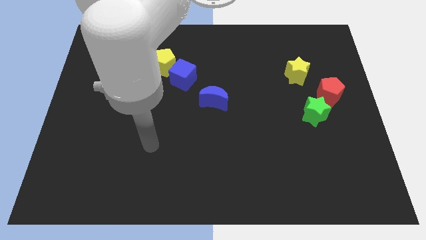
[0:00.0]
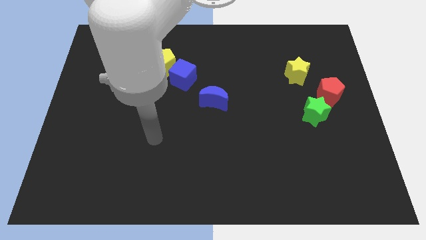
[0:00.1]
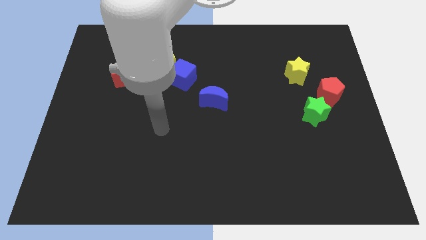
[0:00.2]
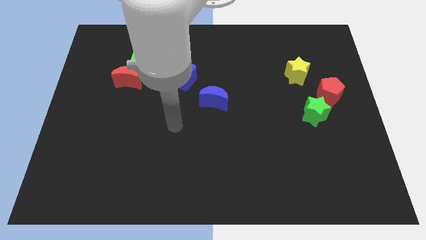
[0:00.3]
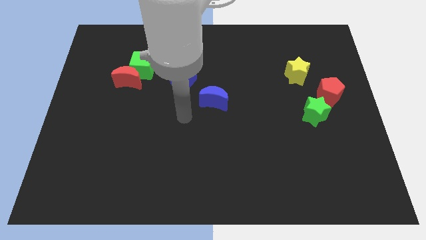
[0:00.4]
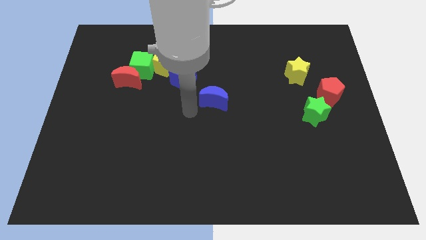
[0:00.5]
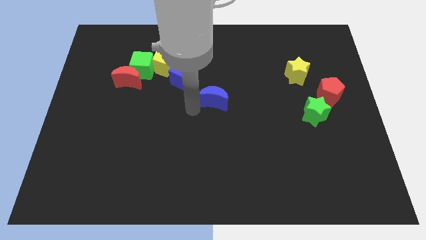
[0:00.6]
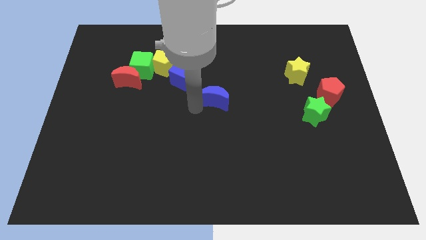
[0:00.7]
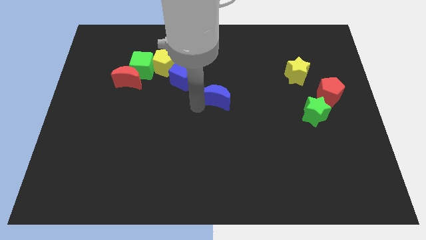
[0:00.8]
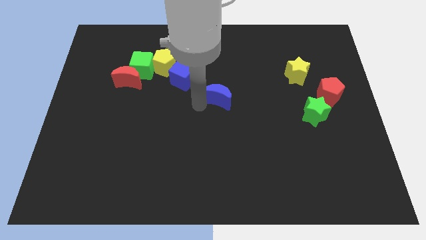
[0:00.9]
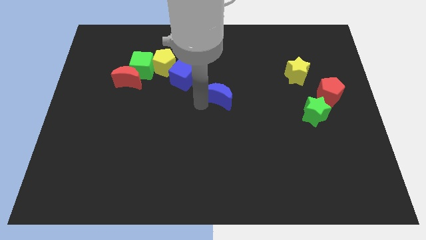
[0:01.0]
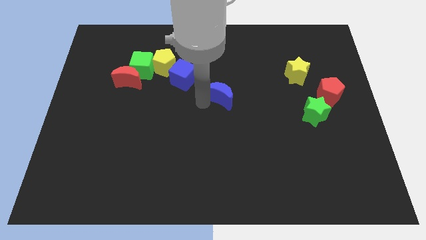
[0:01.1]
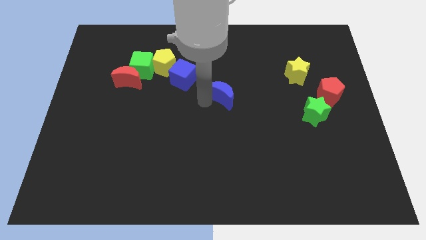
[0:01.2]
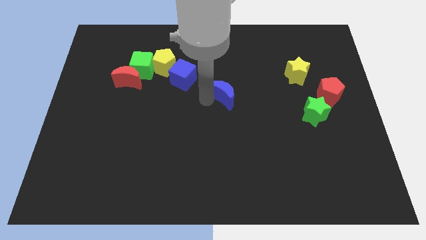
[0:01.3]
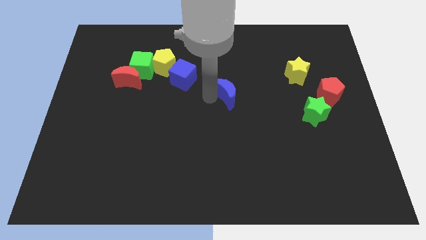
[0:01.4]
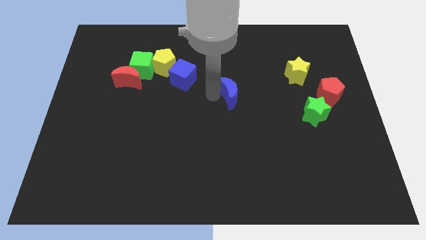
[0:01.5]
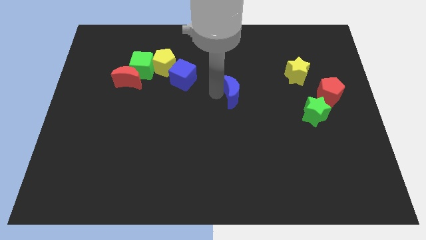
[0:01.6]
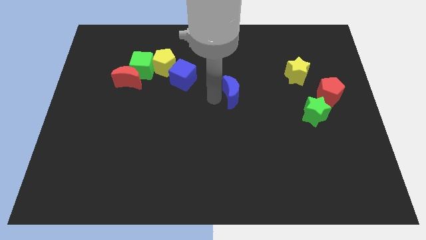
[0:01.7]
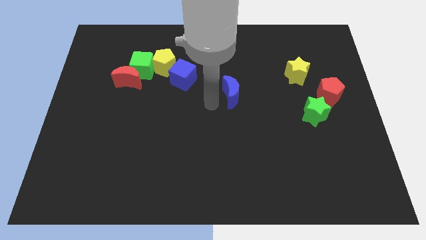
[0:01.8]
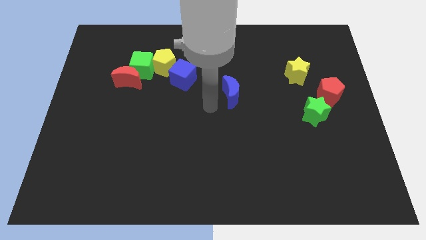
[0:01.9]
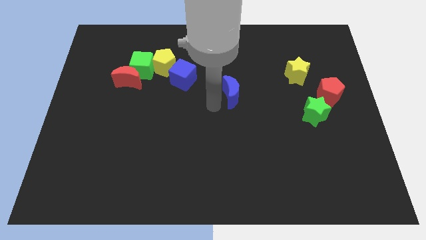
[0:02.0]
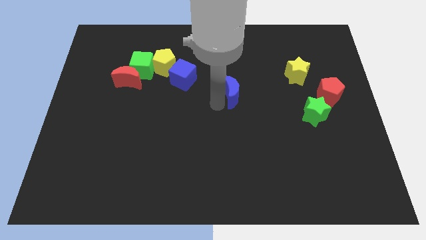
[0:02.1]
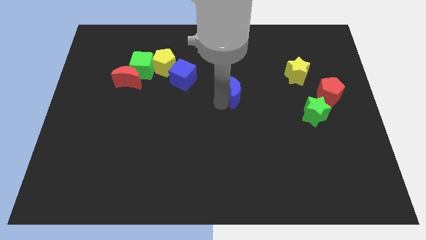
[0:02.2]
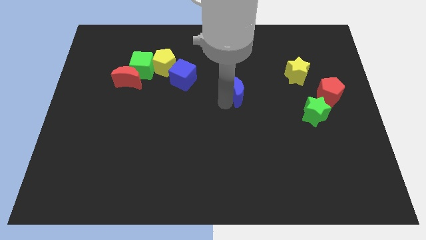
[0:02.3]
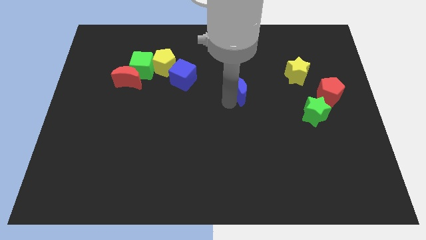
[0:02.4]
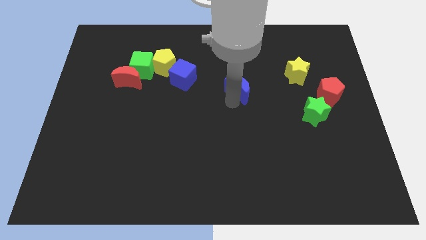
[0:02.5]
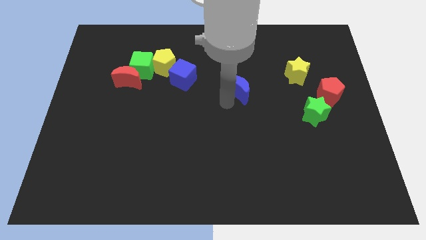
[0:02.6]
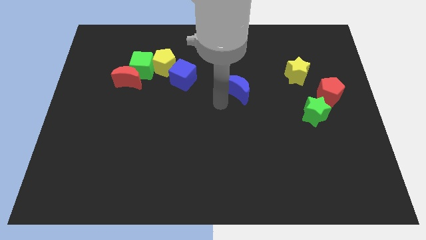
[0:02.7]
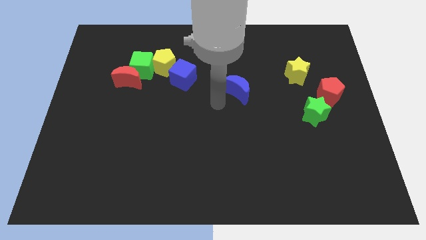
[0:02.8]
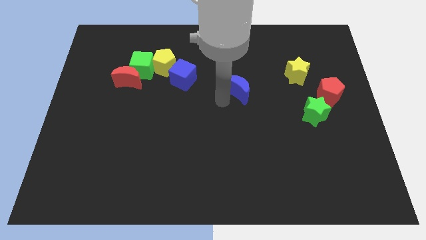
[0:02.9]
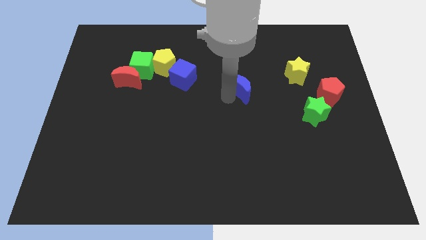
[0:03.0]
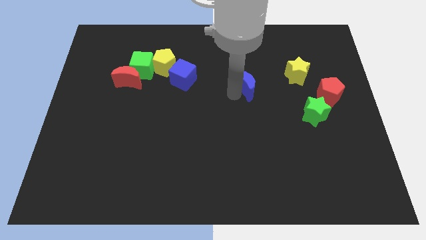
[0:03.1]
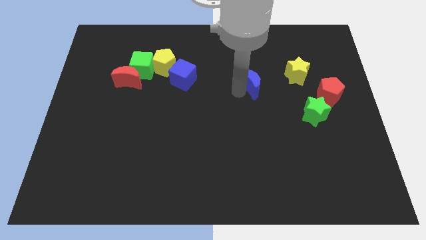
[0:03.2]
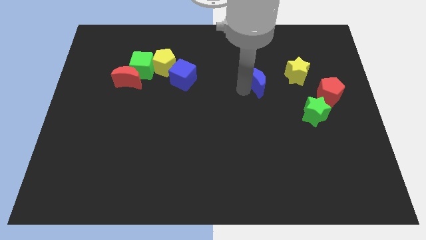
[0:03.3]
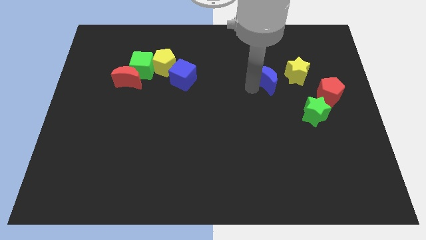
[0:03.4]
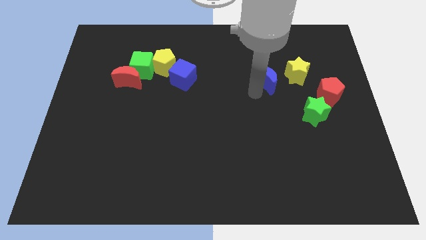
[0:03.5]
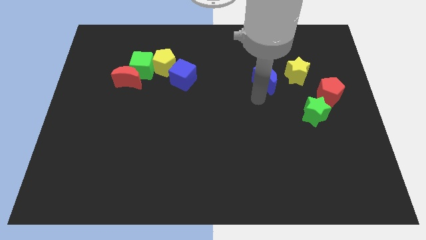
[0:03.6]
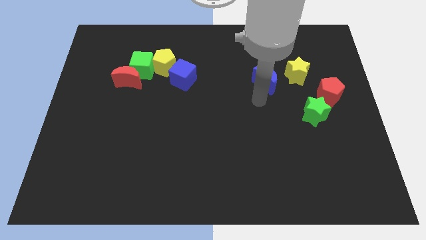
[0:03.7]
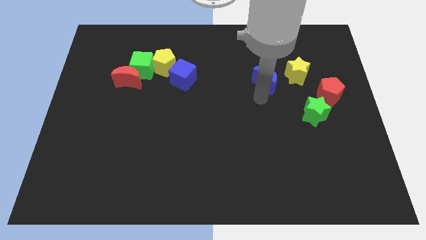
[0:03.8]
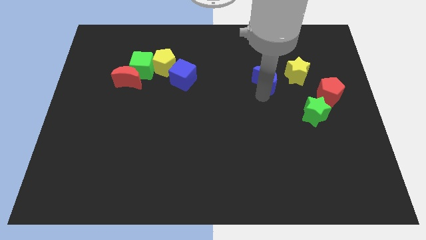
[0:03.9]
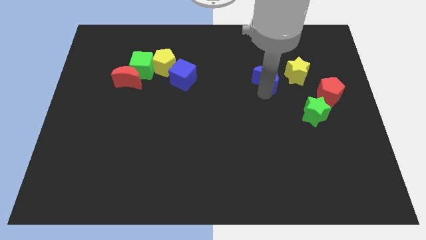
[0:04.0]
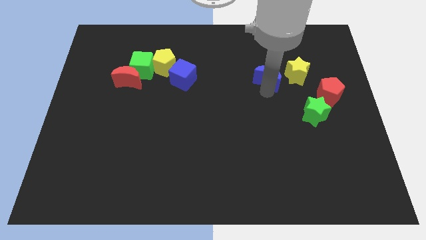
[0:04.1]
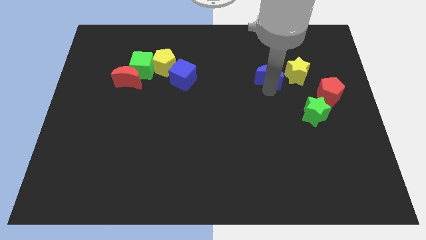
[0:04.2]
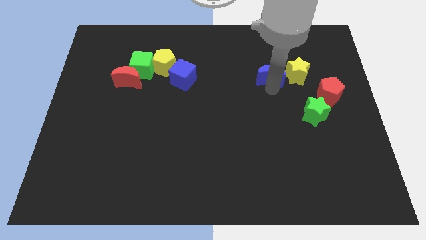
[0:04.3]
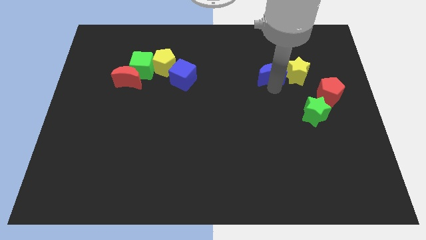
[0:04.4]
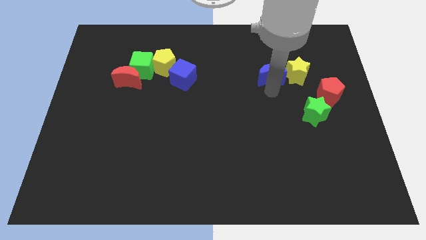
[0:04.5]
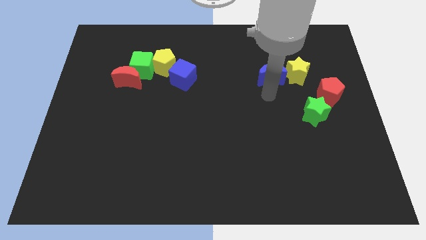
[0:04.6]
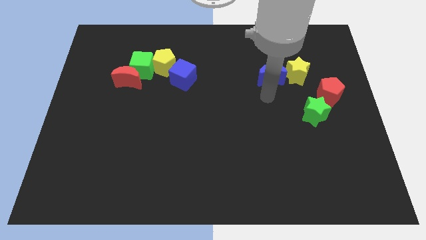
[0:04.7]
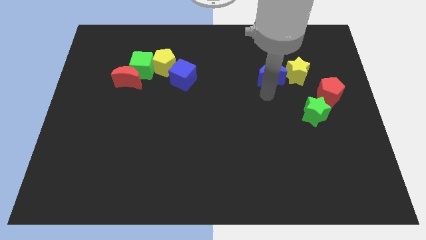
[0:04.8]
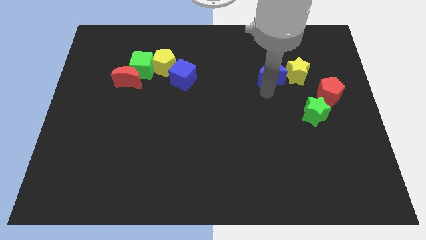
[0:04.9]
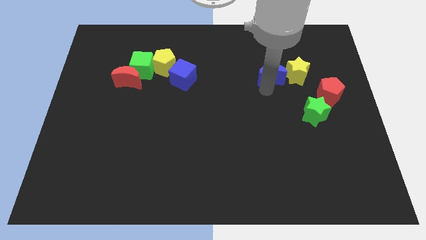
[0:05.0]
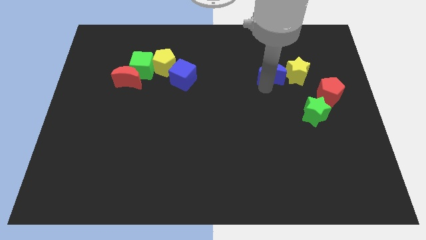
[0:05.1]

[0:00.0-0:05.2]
push the blue moon to the top left side of the yellow star

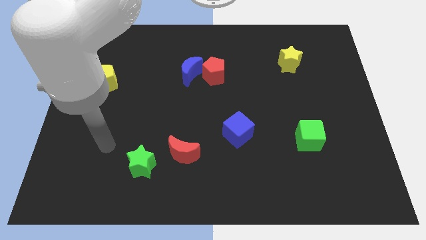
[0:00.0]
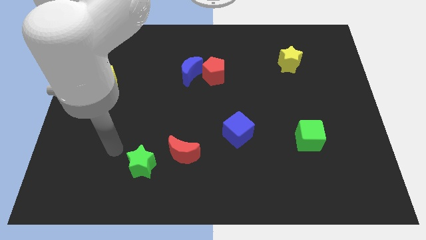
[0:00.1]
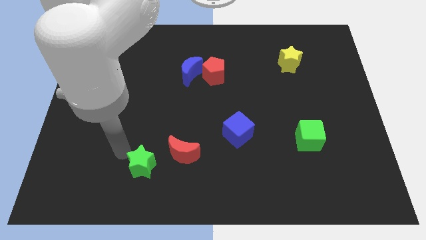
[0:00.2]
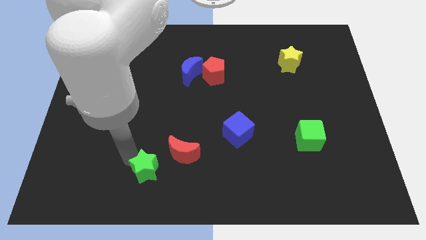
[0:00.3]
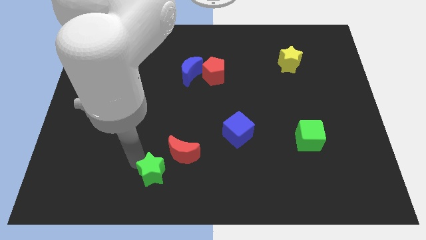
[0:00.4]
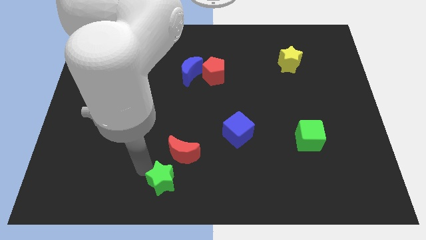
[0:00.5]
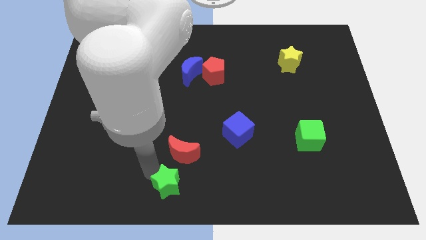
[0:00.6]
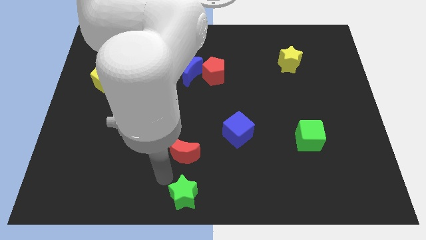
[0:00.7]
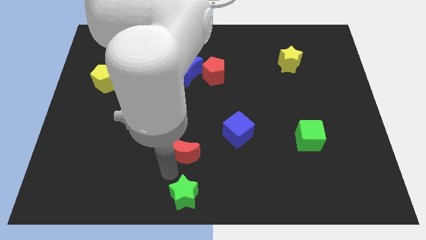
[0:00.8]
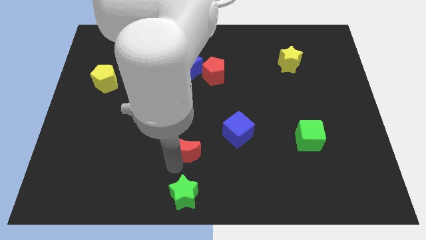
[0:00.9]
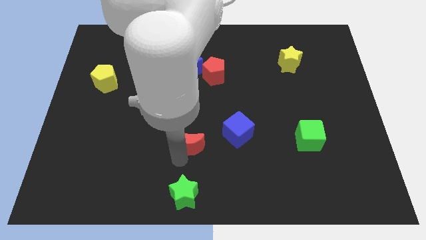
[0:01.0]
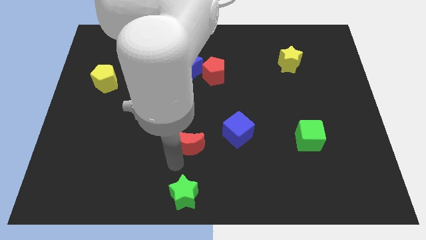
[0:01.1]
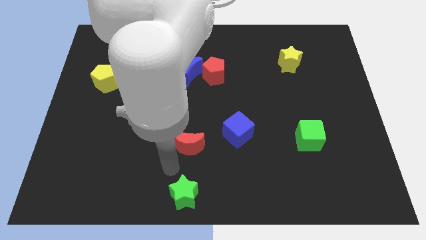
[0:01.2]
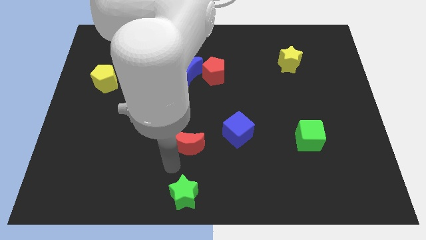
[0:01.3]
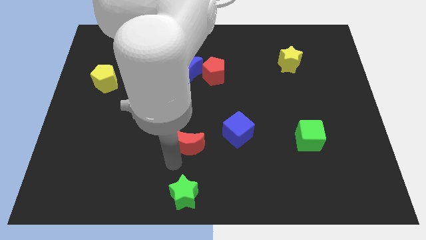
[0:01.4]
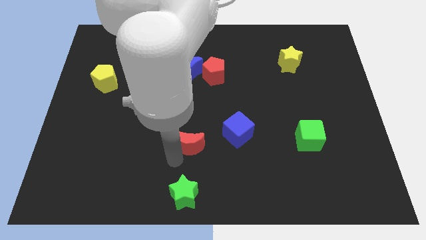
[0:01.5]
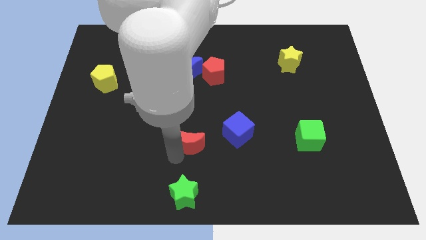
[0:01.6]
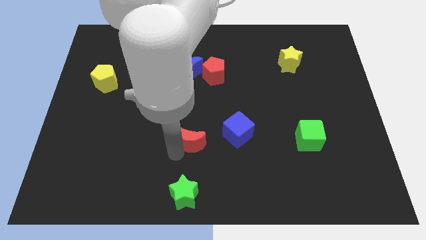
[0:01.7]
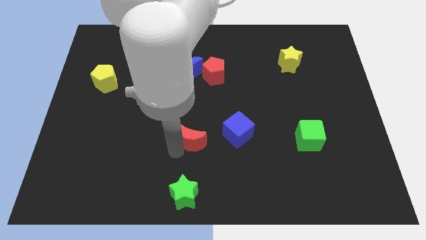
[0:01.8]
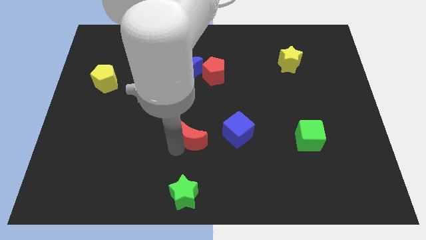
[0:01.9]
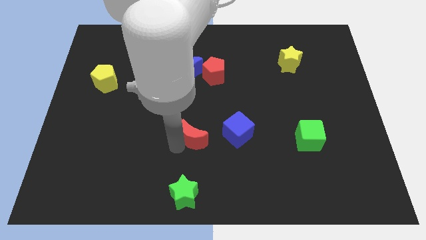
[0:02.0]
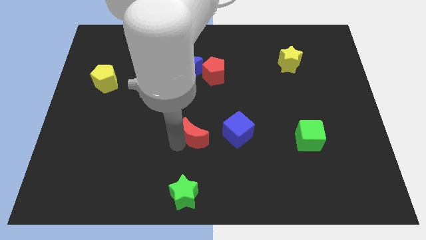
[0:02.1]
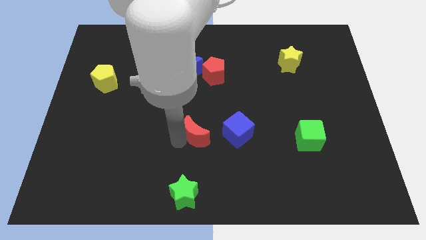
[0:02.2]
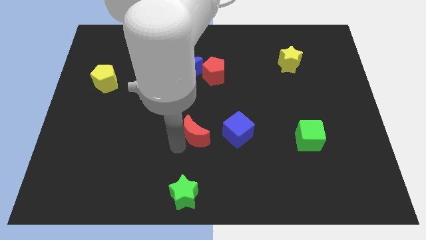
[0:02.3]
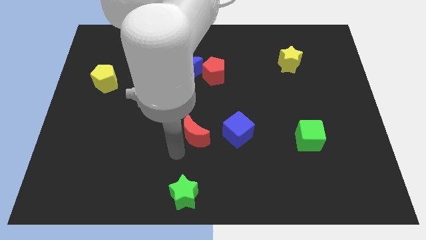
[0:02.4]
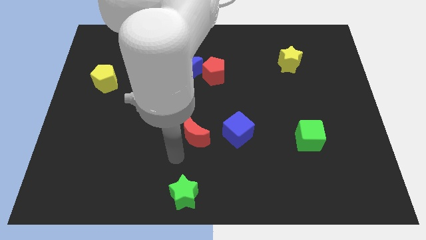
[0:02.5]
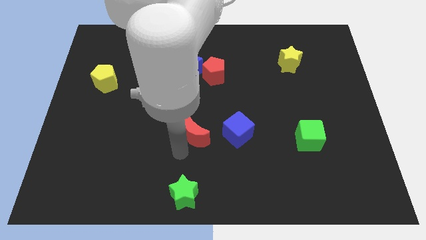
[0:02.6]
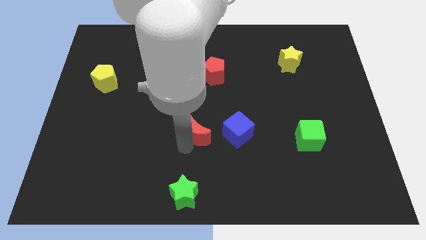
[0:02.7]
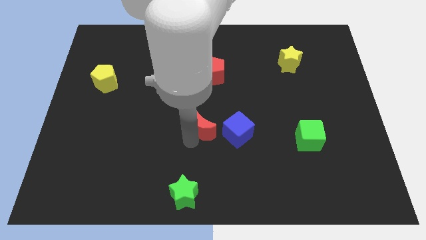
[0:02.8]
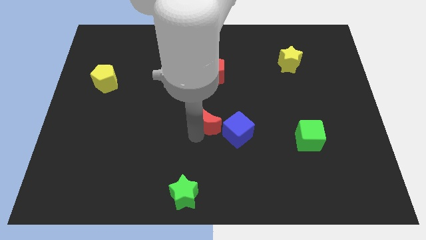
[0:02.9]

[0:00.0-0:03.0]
slide the red moon to the top left of the blue cube
